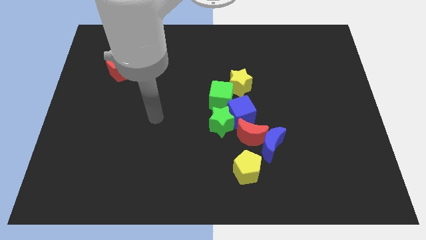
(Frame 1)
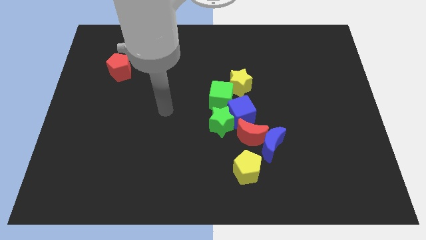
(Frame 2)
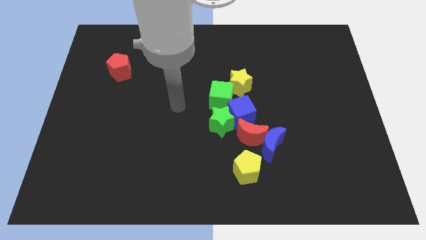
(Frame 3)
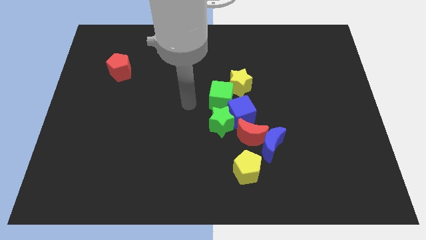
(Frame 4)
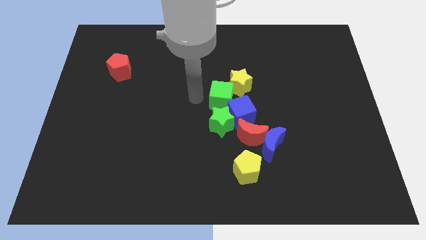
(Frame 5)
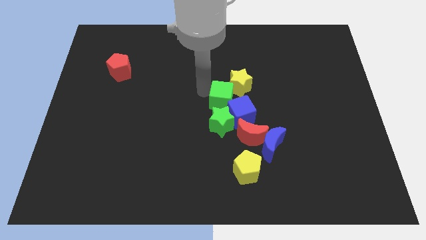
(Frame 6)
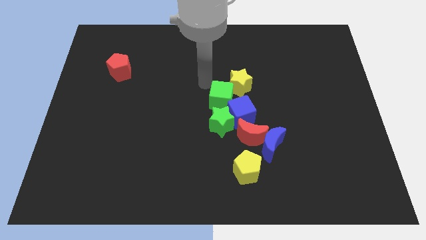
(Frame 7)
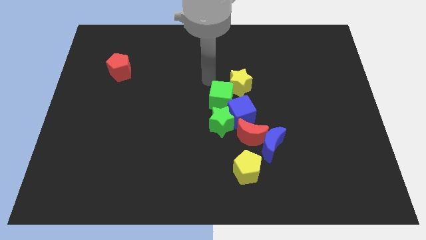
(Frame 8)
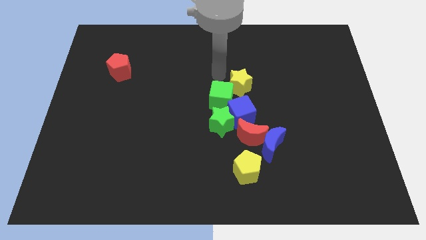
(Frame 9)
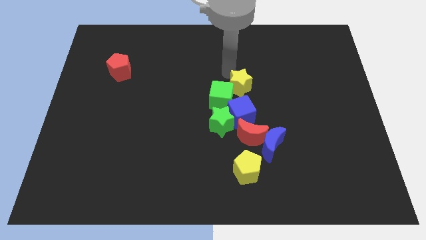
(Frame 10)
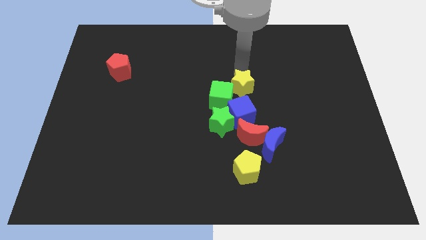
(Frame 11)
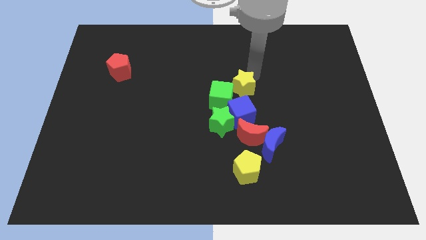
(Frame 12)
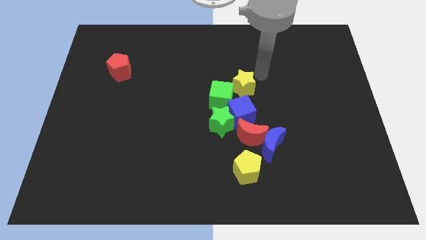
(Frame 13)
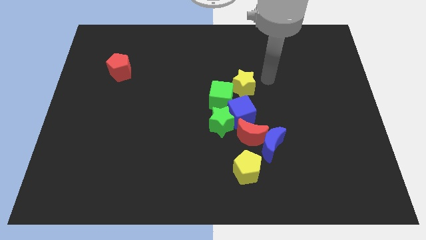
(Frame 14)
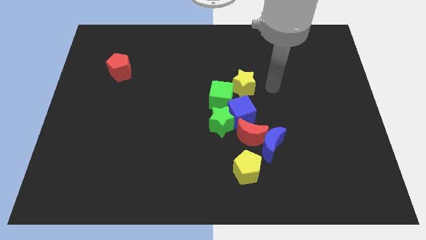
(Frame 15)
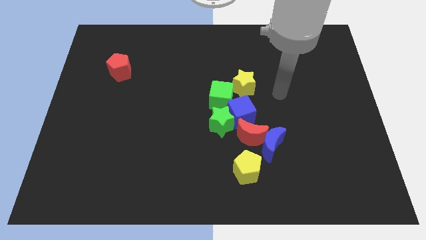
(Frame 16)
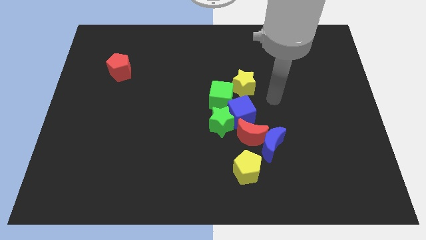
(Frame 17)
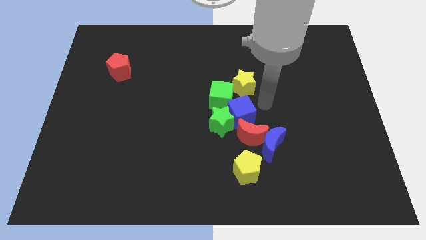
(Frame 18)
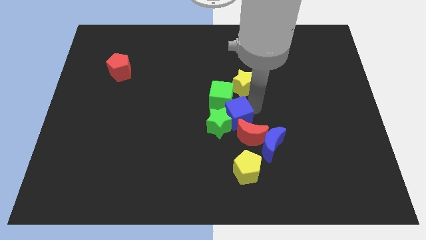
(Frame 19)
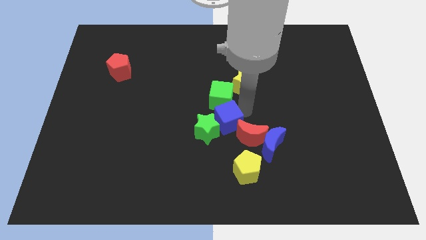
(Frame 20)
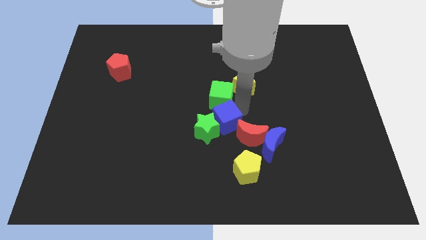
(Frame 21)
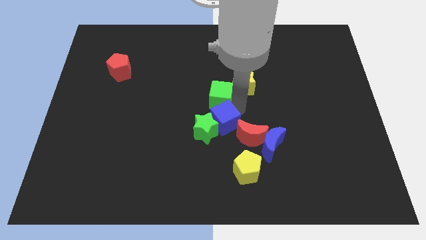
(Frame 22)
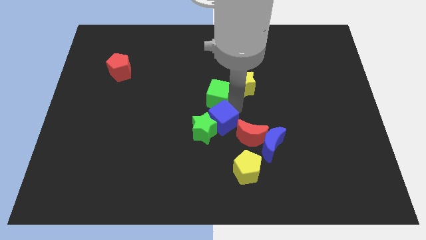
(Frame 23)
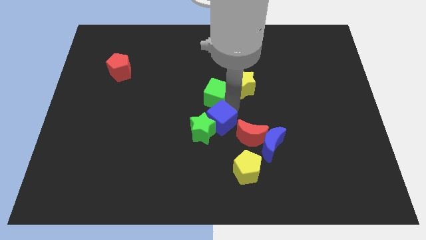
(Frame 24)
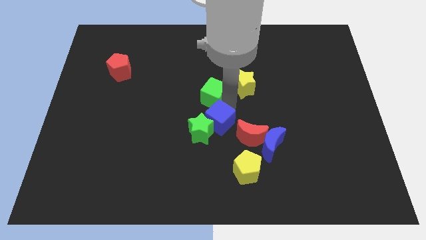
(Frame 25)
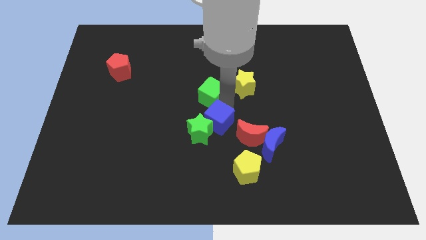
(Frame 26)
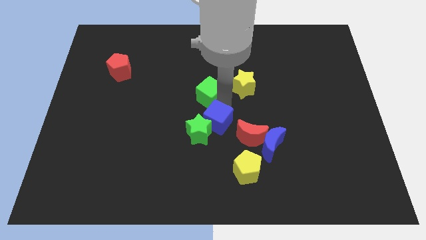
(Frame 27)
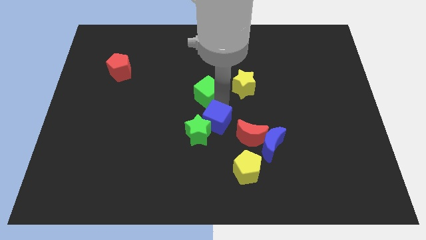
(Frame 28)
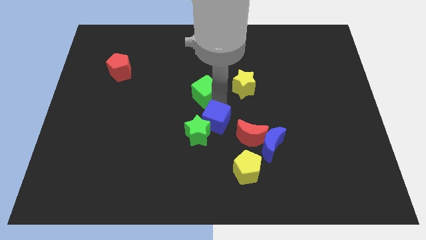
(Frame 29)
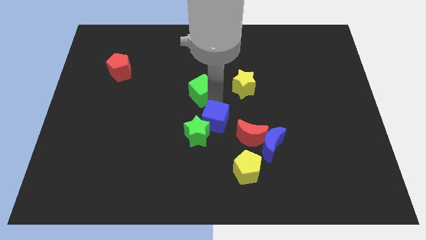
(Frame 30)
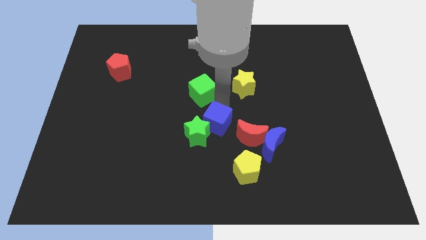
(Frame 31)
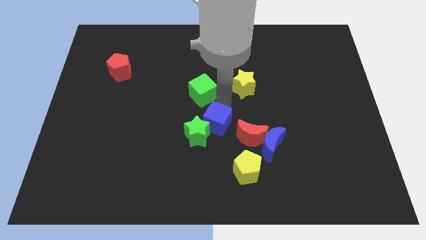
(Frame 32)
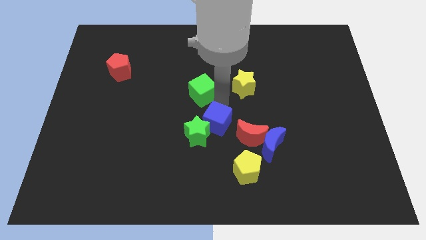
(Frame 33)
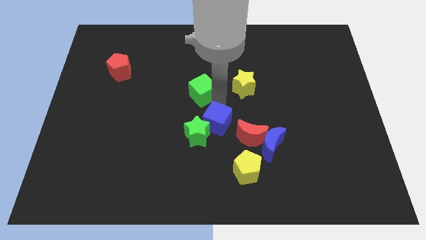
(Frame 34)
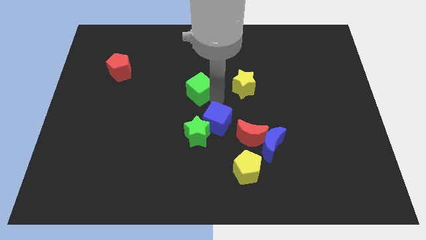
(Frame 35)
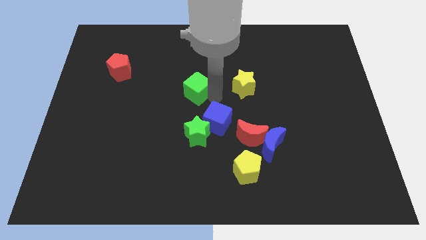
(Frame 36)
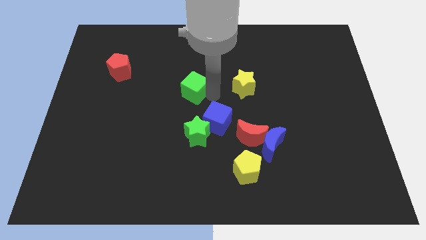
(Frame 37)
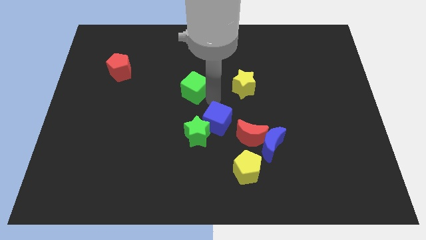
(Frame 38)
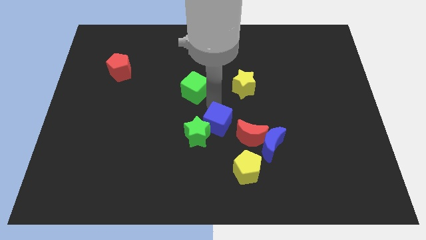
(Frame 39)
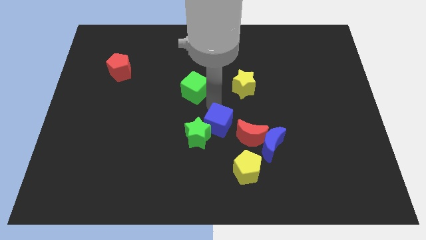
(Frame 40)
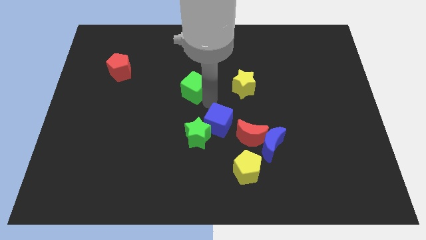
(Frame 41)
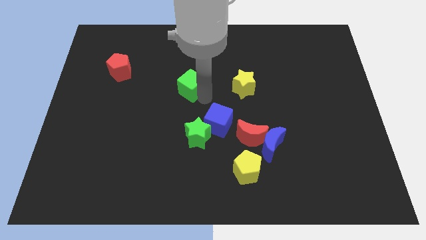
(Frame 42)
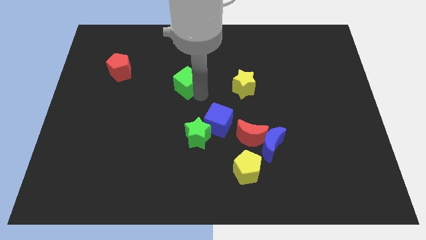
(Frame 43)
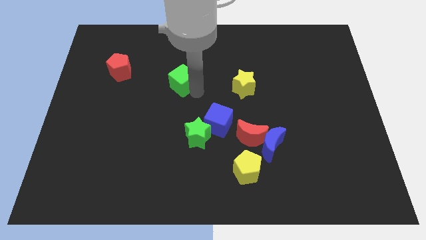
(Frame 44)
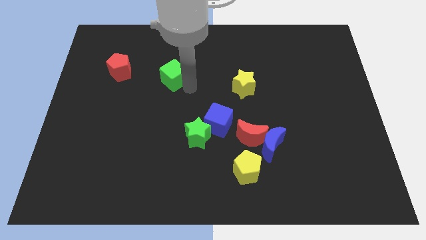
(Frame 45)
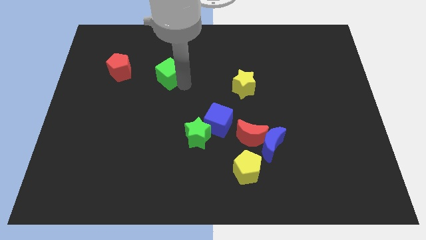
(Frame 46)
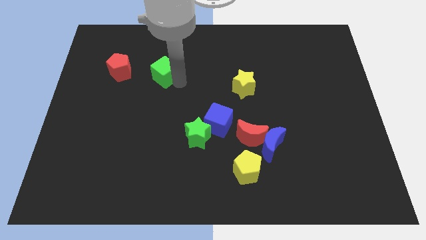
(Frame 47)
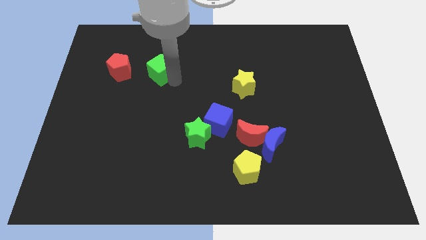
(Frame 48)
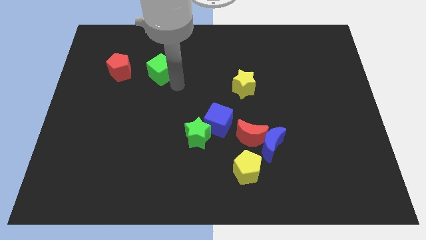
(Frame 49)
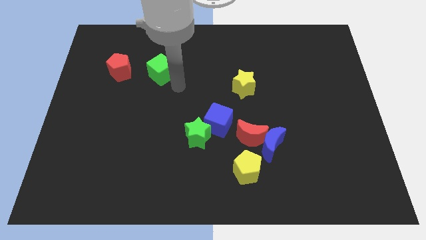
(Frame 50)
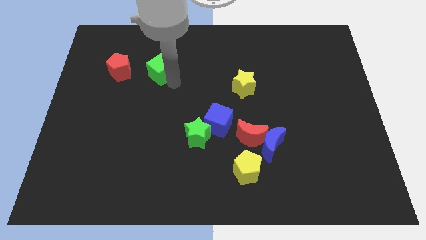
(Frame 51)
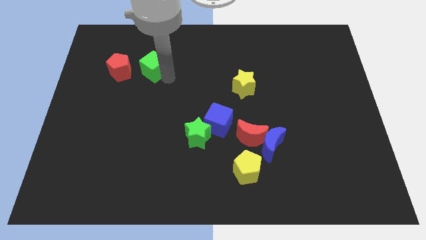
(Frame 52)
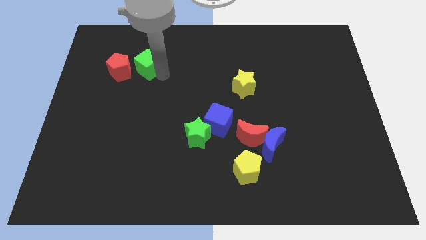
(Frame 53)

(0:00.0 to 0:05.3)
put the green cube to the top right side of the red pentagon

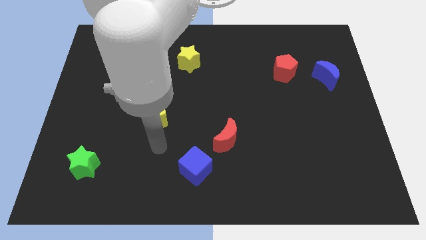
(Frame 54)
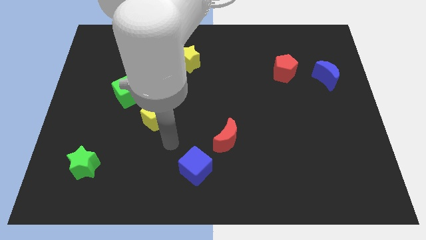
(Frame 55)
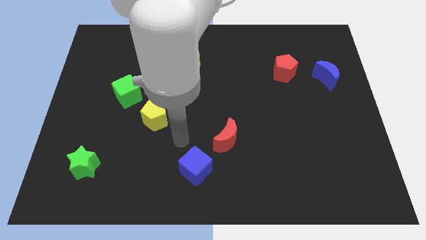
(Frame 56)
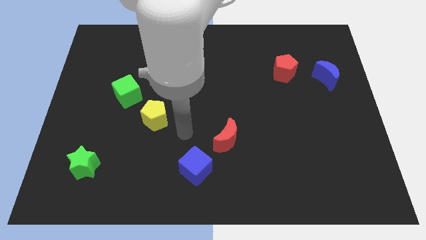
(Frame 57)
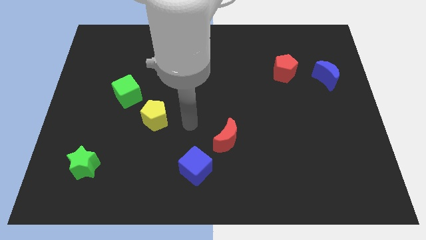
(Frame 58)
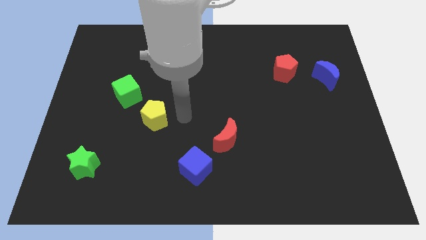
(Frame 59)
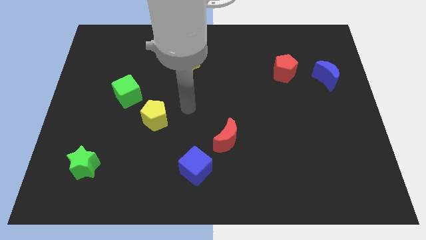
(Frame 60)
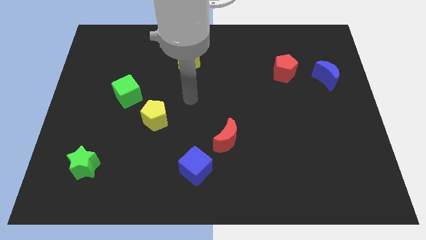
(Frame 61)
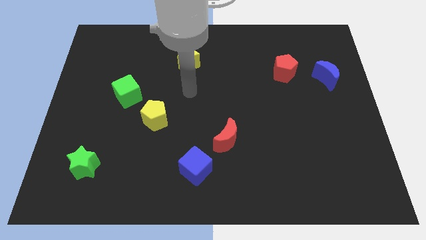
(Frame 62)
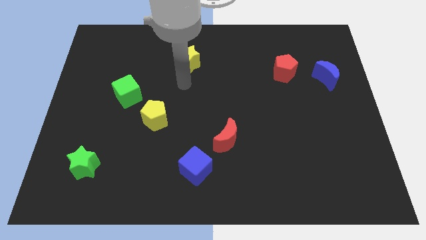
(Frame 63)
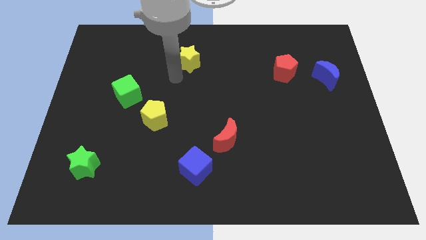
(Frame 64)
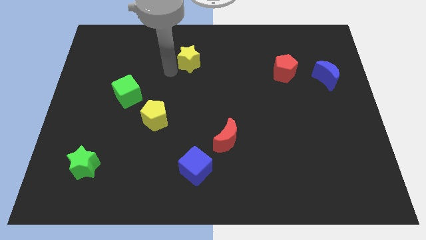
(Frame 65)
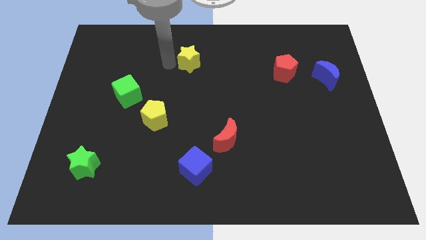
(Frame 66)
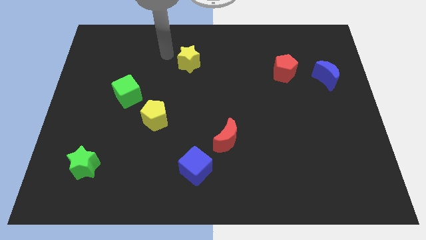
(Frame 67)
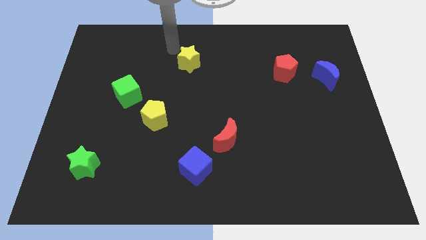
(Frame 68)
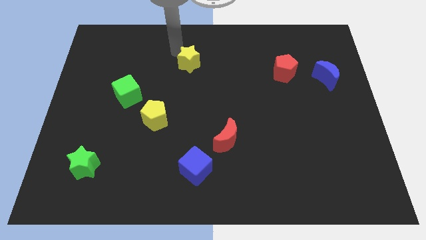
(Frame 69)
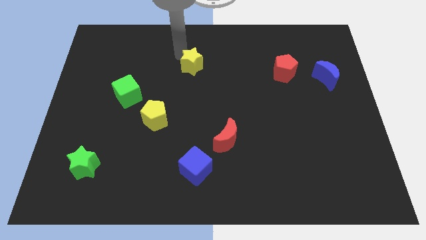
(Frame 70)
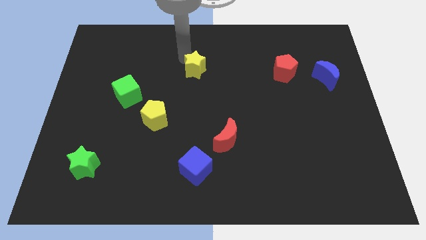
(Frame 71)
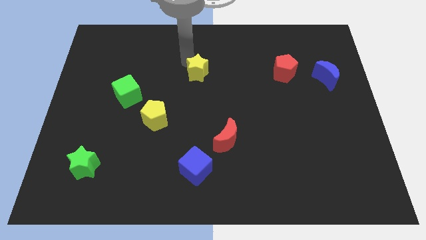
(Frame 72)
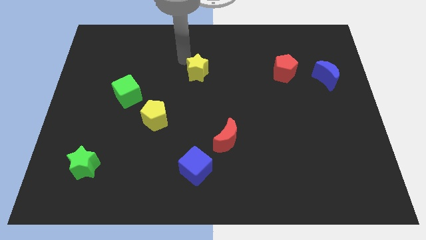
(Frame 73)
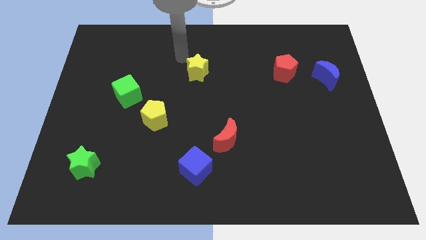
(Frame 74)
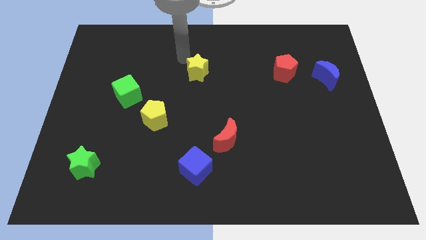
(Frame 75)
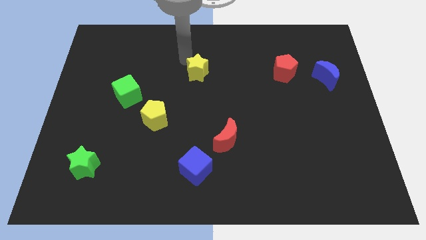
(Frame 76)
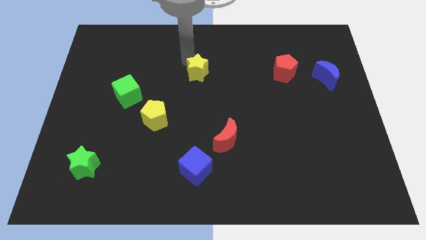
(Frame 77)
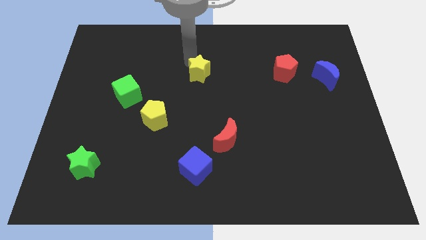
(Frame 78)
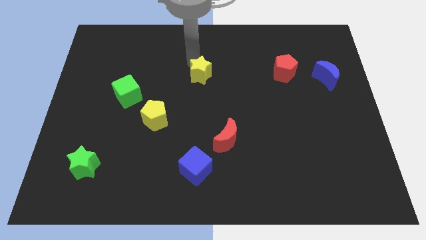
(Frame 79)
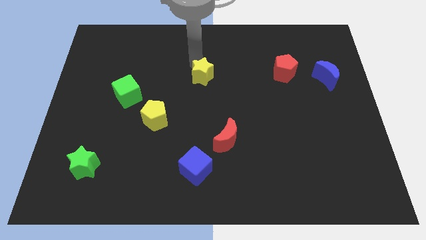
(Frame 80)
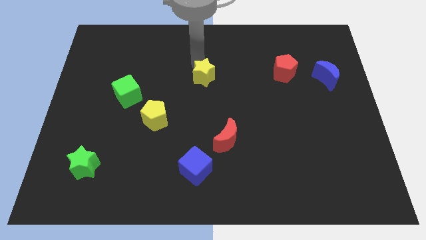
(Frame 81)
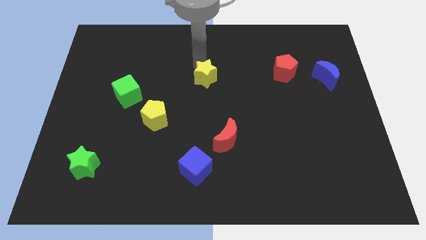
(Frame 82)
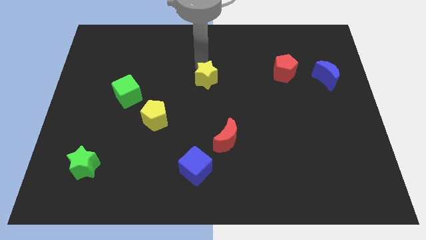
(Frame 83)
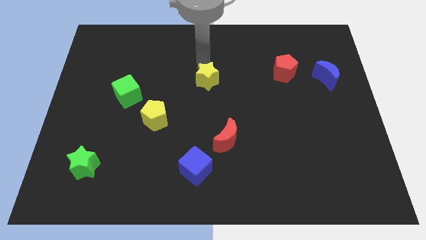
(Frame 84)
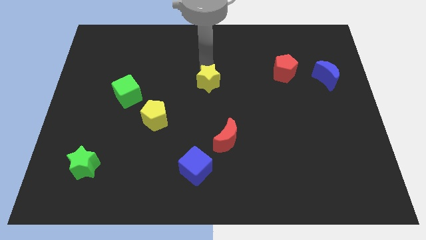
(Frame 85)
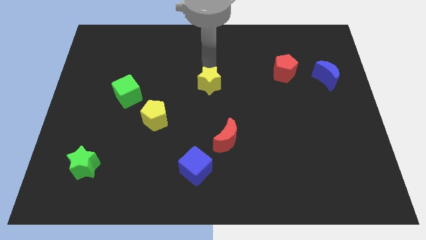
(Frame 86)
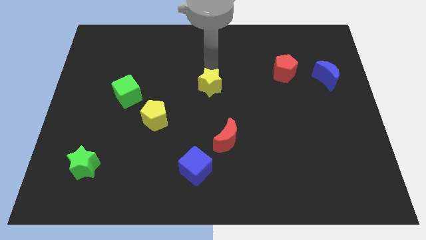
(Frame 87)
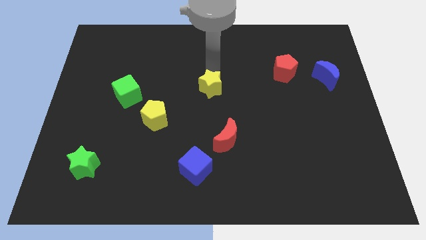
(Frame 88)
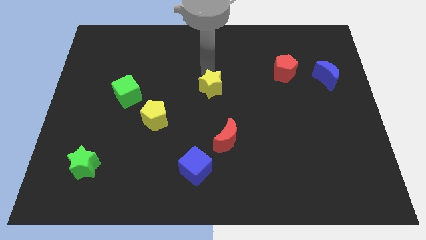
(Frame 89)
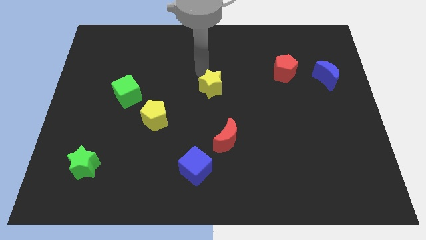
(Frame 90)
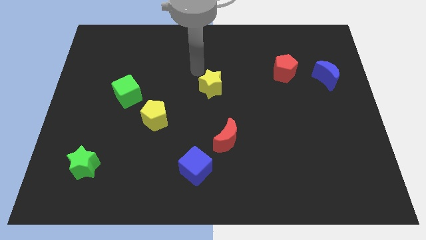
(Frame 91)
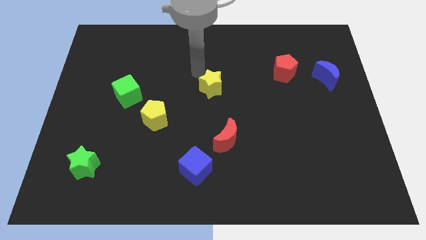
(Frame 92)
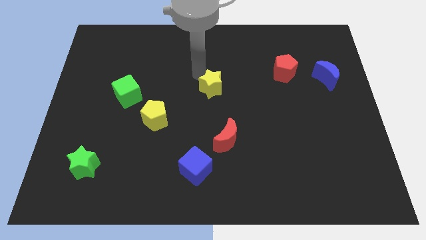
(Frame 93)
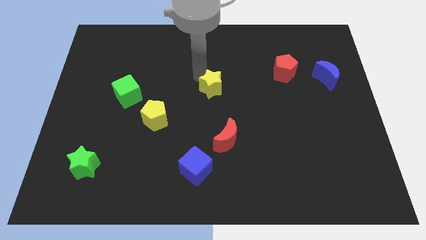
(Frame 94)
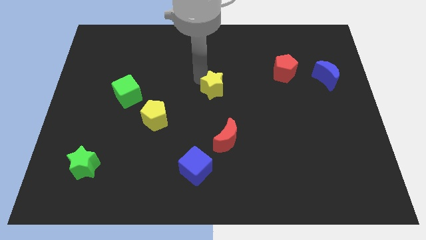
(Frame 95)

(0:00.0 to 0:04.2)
push the yellow star to the top of the red moon
